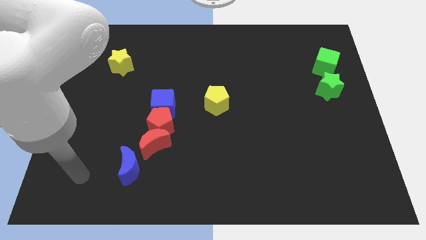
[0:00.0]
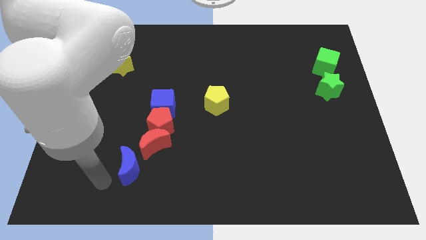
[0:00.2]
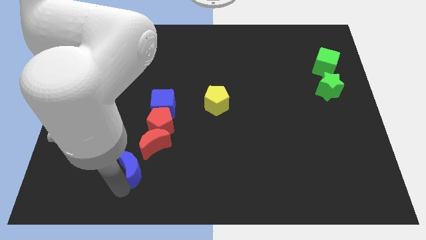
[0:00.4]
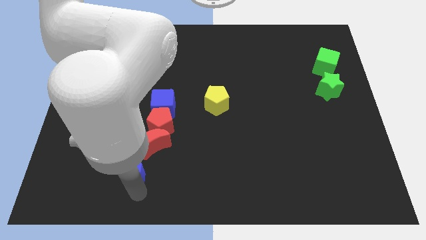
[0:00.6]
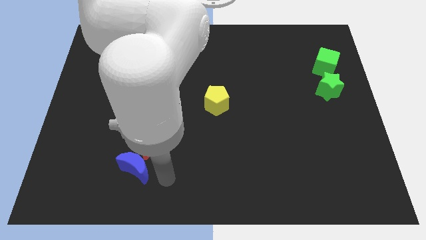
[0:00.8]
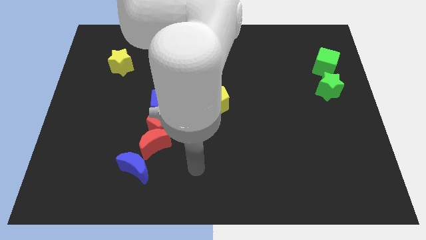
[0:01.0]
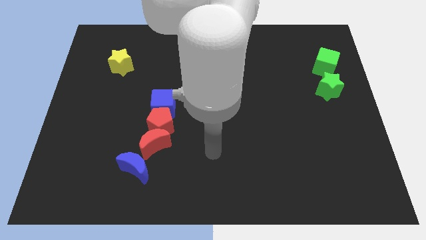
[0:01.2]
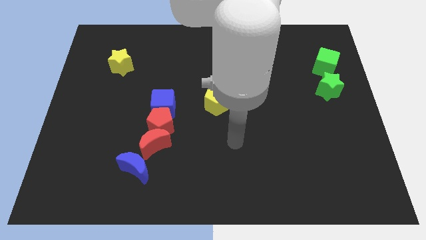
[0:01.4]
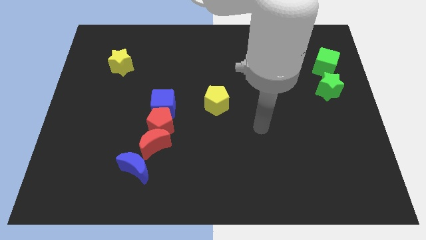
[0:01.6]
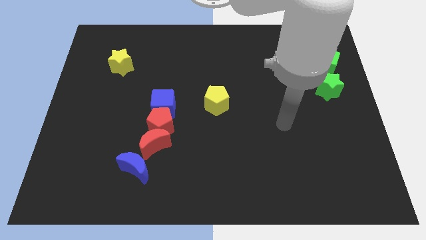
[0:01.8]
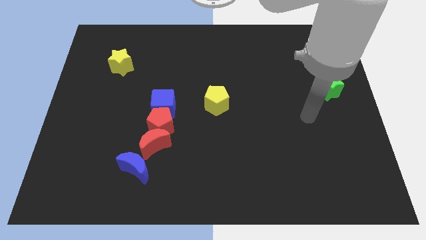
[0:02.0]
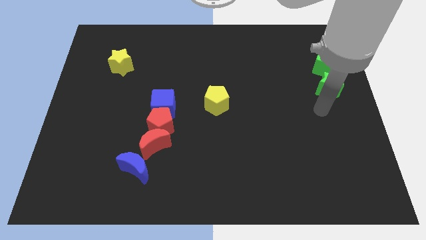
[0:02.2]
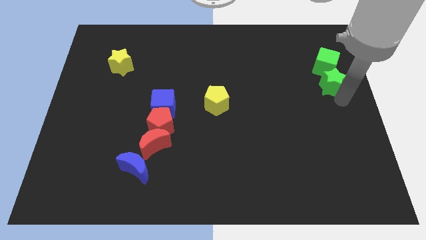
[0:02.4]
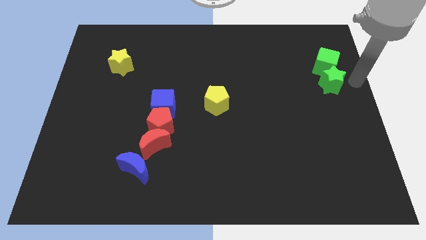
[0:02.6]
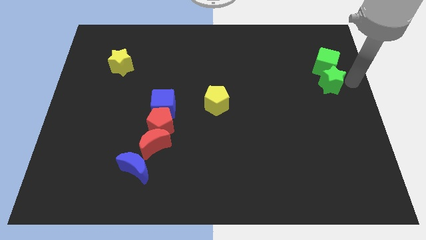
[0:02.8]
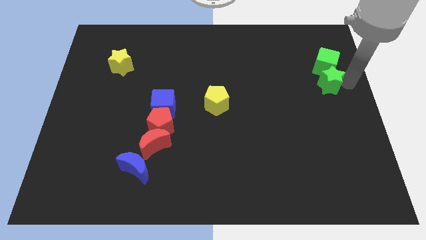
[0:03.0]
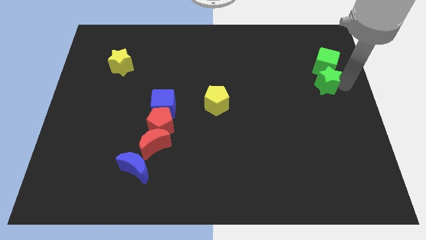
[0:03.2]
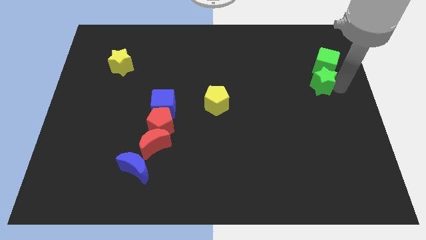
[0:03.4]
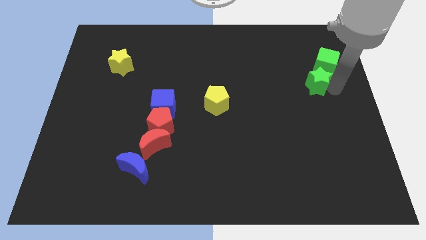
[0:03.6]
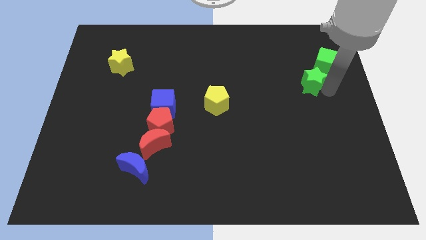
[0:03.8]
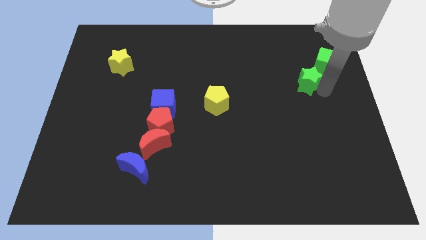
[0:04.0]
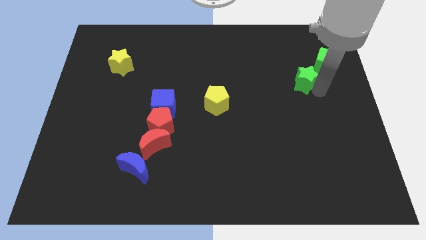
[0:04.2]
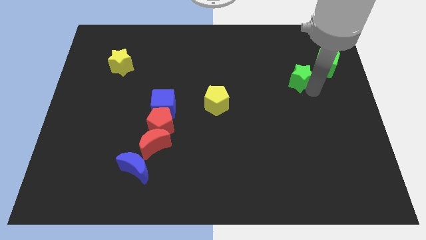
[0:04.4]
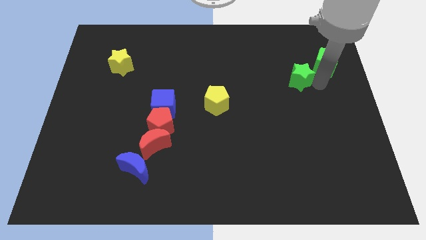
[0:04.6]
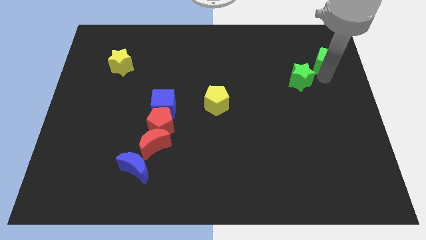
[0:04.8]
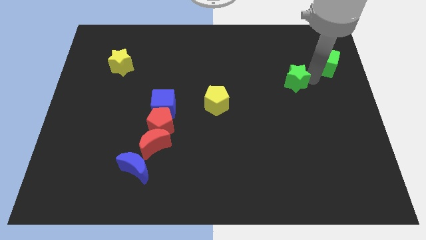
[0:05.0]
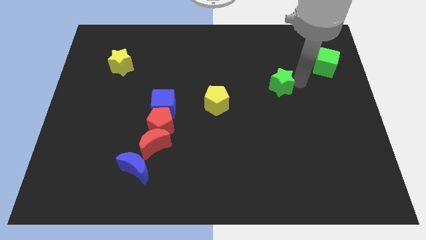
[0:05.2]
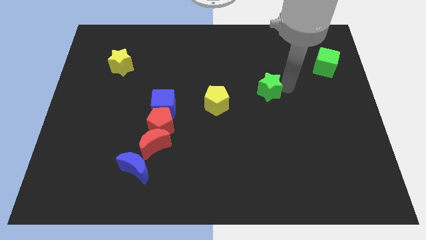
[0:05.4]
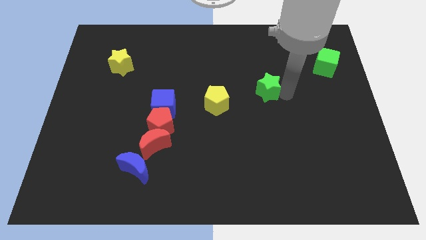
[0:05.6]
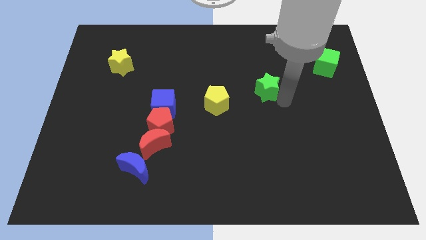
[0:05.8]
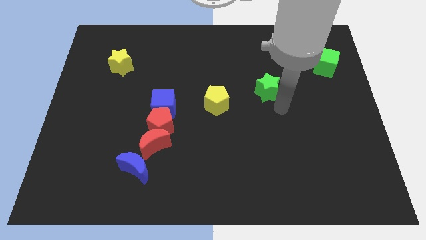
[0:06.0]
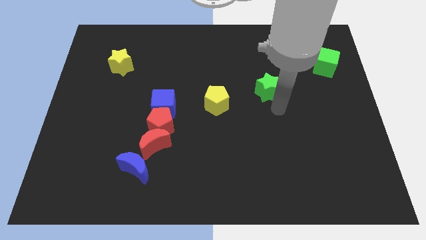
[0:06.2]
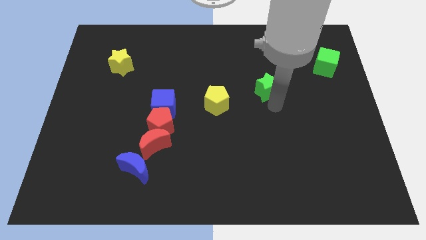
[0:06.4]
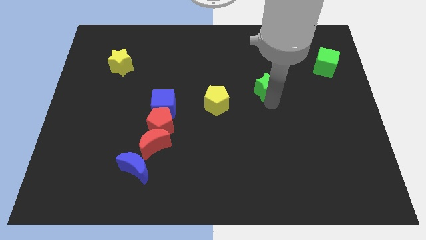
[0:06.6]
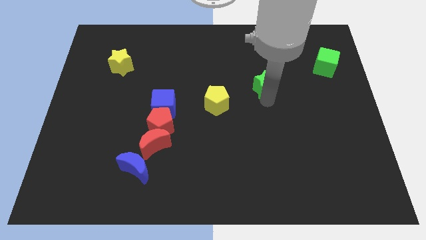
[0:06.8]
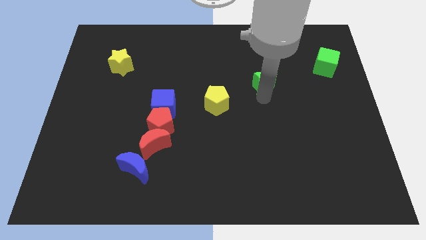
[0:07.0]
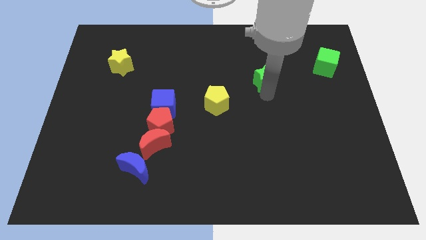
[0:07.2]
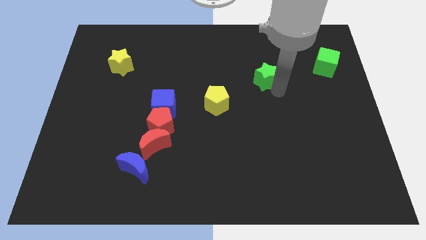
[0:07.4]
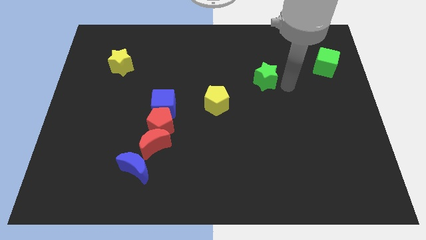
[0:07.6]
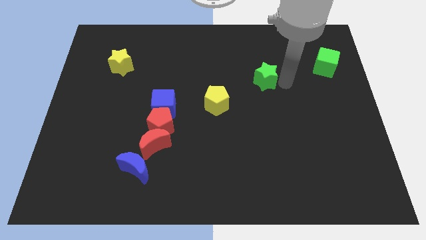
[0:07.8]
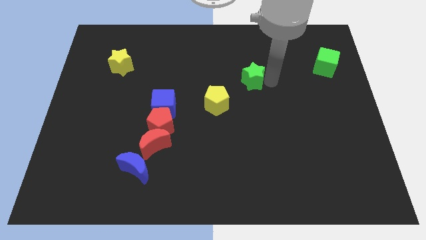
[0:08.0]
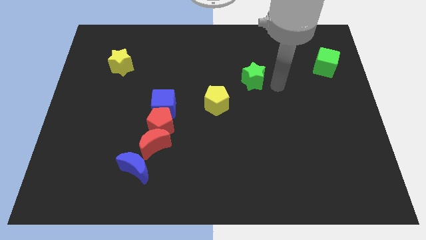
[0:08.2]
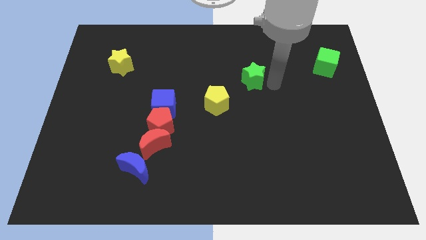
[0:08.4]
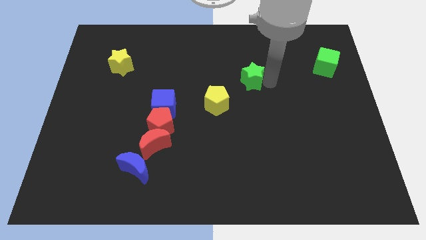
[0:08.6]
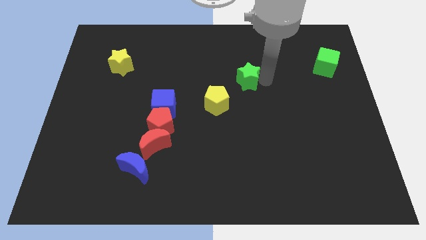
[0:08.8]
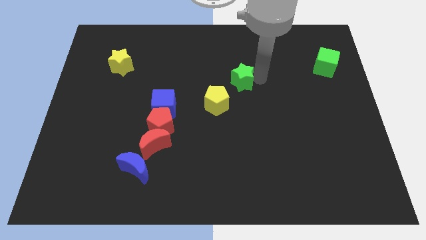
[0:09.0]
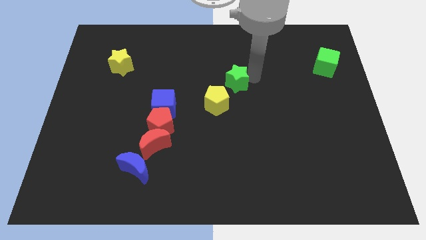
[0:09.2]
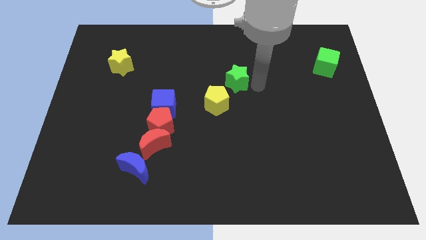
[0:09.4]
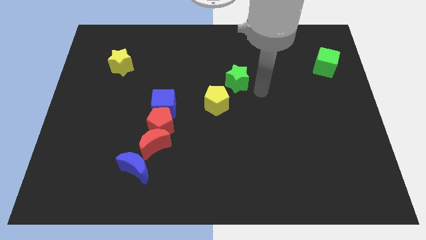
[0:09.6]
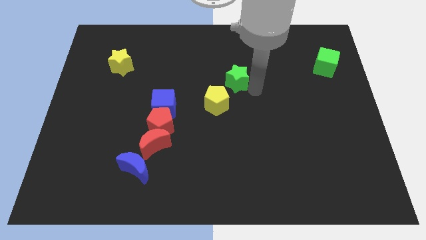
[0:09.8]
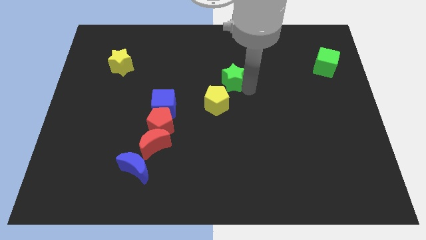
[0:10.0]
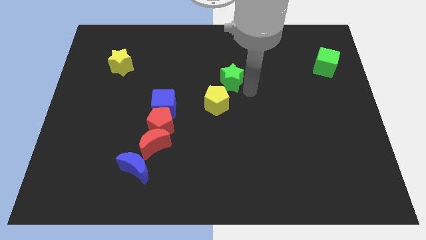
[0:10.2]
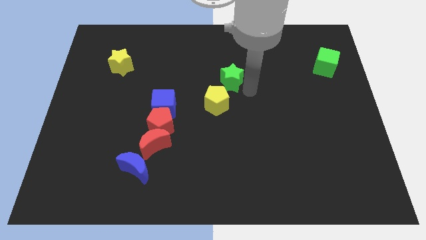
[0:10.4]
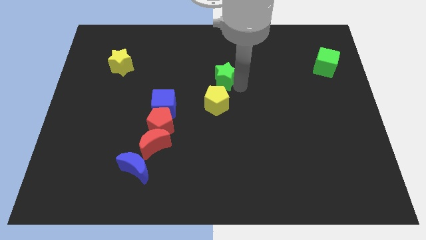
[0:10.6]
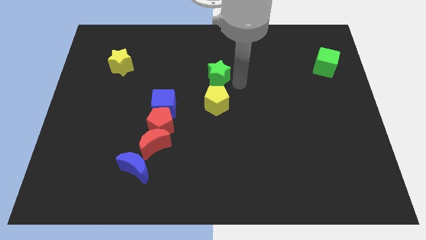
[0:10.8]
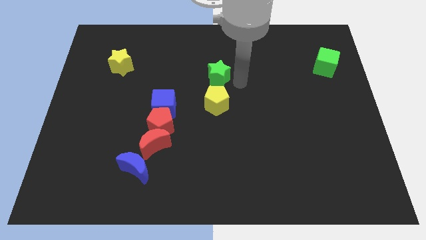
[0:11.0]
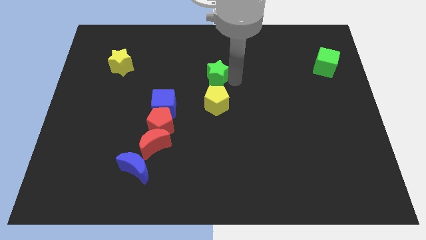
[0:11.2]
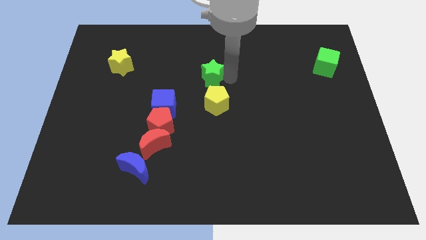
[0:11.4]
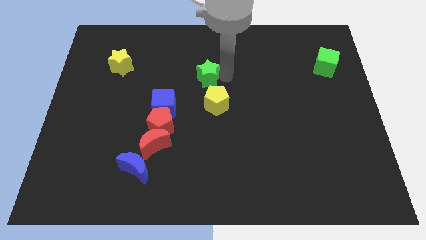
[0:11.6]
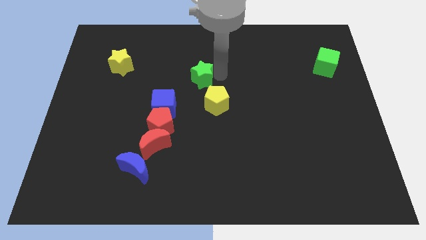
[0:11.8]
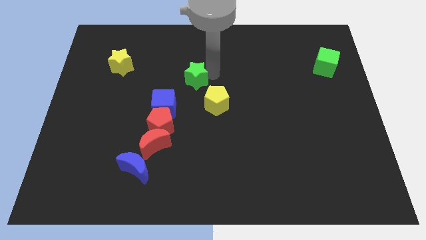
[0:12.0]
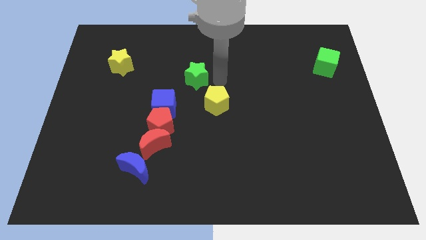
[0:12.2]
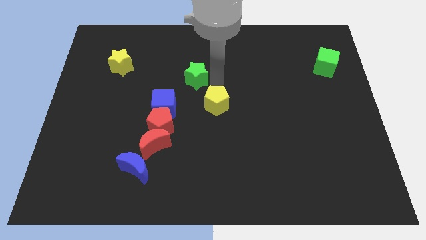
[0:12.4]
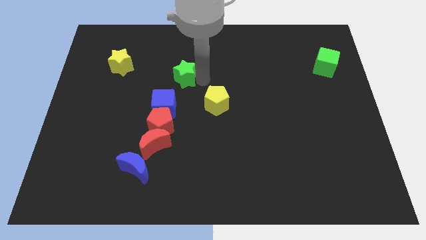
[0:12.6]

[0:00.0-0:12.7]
slide the green star above the blue cube
